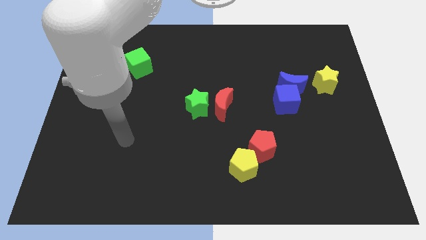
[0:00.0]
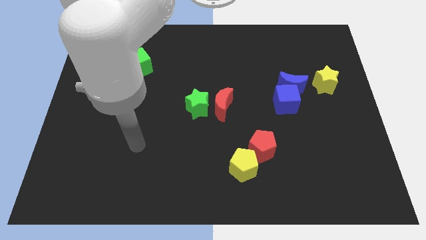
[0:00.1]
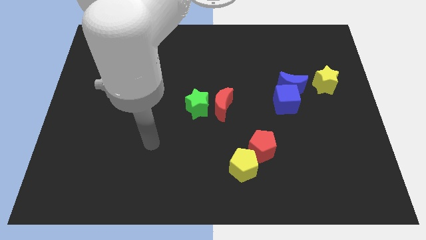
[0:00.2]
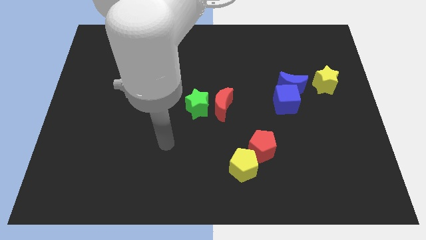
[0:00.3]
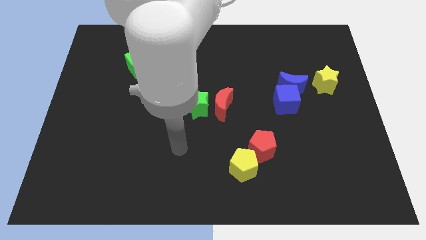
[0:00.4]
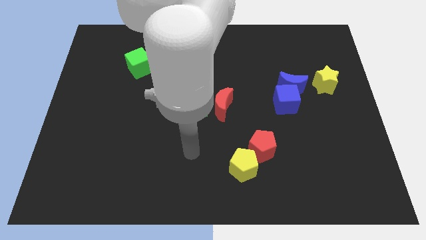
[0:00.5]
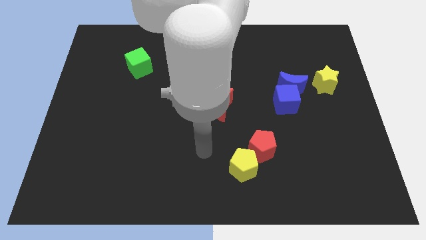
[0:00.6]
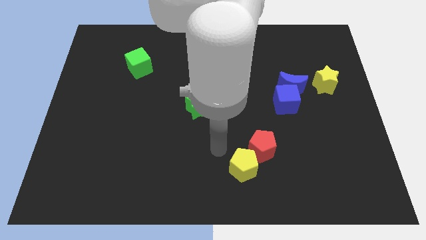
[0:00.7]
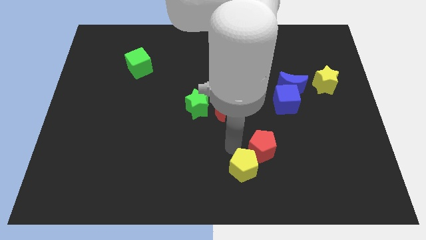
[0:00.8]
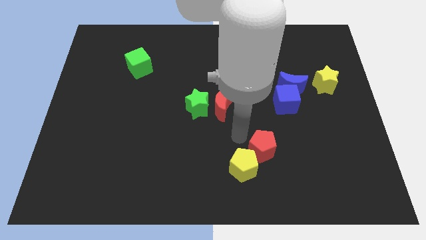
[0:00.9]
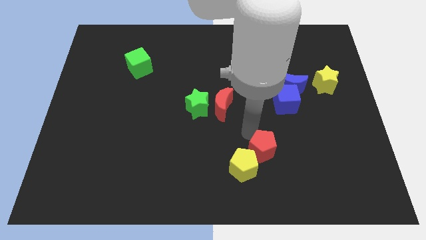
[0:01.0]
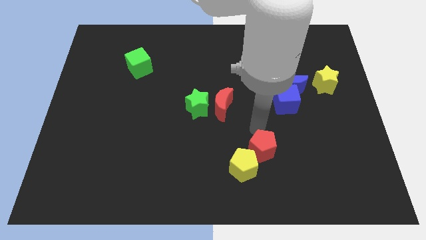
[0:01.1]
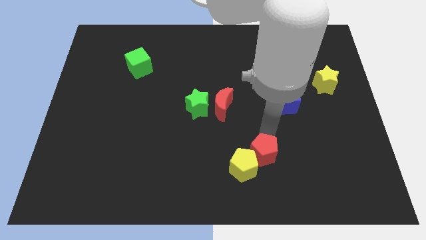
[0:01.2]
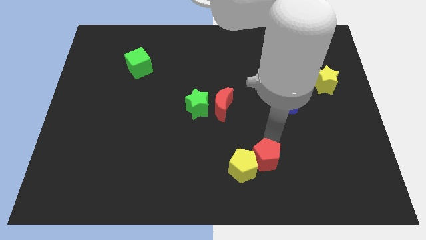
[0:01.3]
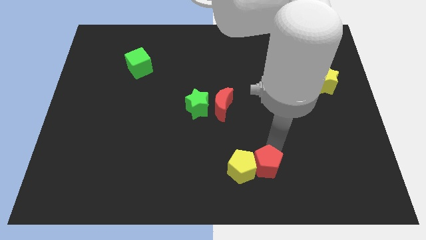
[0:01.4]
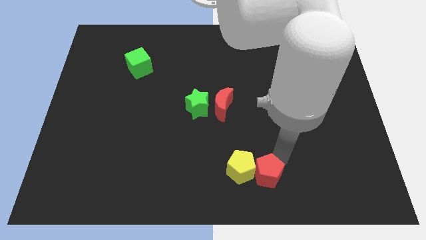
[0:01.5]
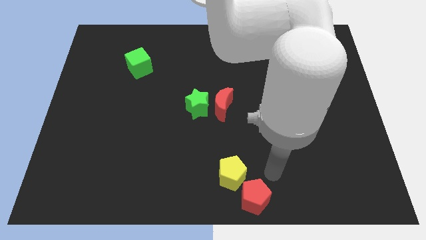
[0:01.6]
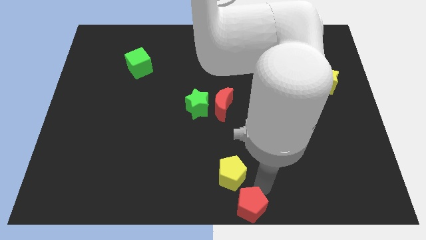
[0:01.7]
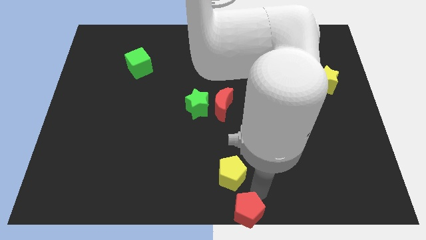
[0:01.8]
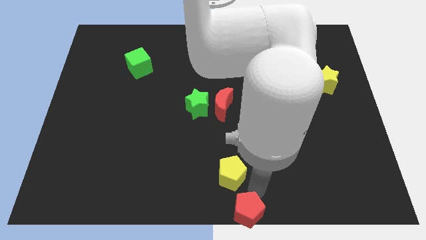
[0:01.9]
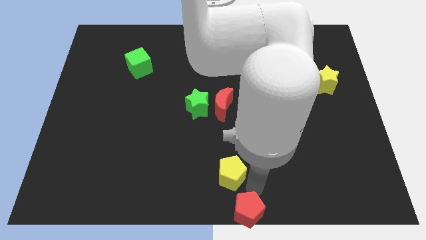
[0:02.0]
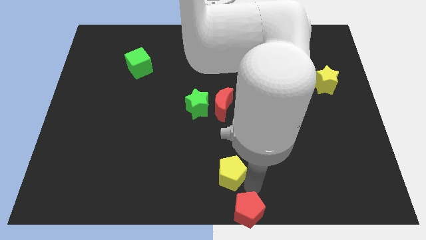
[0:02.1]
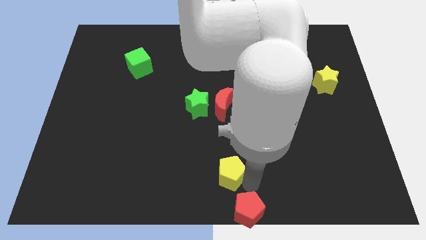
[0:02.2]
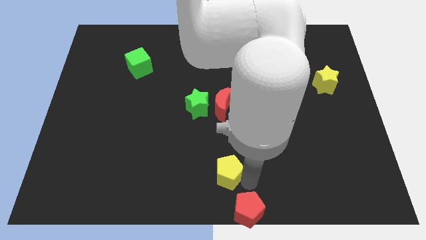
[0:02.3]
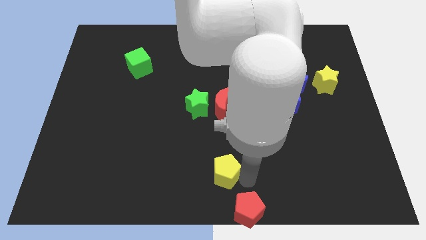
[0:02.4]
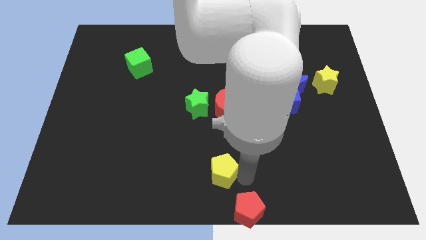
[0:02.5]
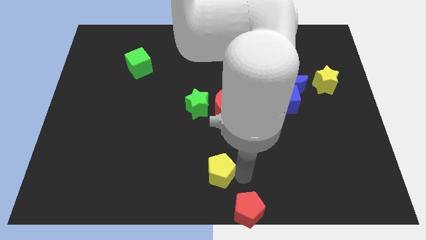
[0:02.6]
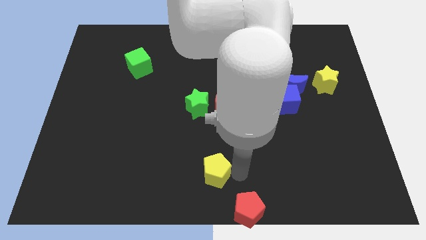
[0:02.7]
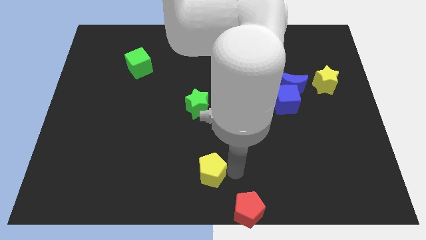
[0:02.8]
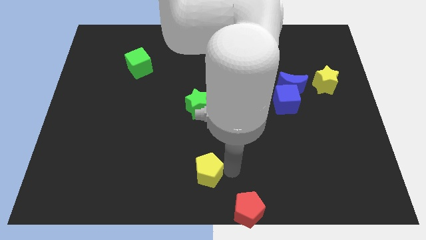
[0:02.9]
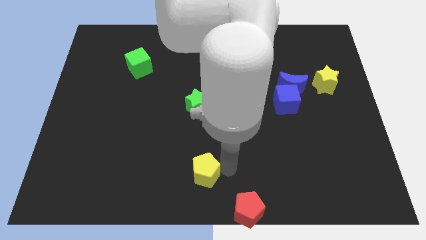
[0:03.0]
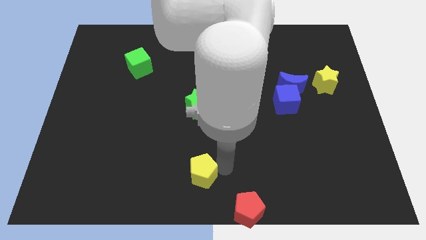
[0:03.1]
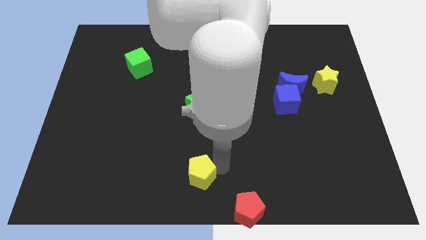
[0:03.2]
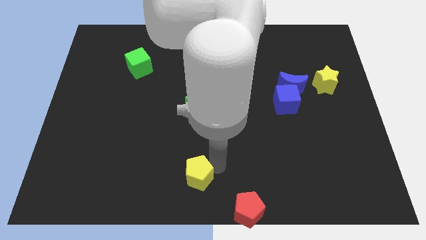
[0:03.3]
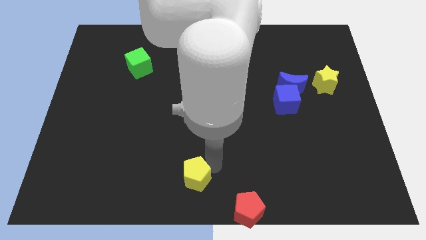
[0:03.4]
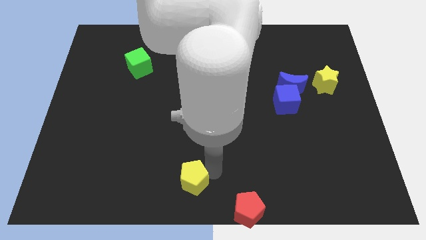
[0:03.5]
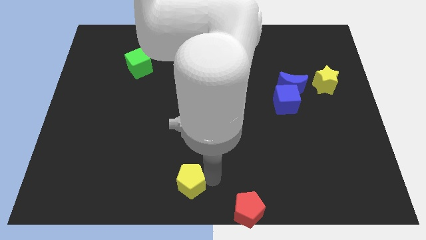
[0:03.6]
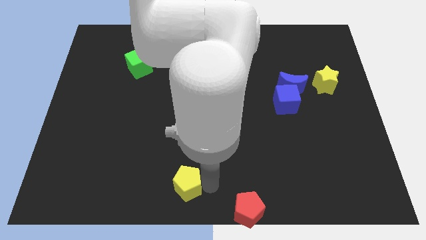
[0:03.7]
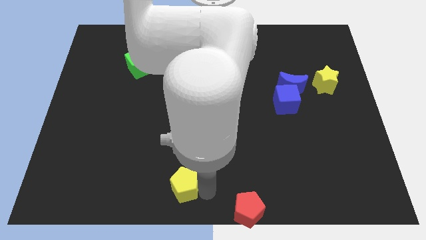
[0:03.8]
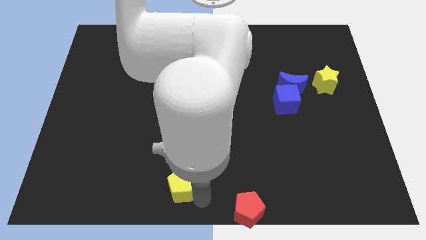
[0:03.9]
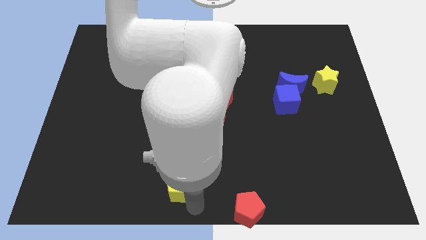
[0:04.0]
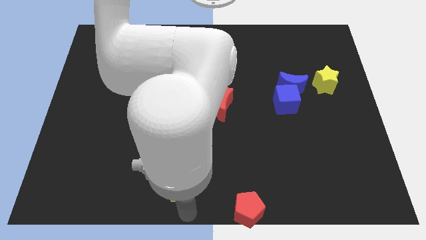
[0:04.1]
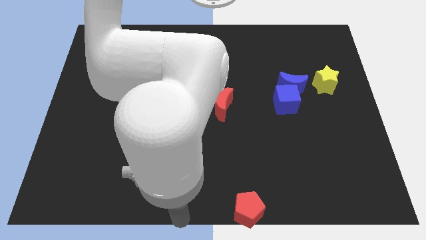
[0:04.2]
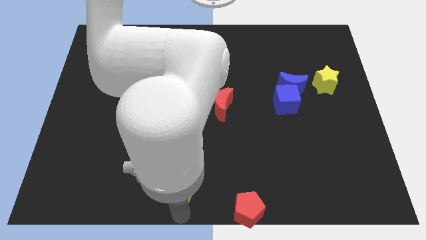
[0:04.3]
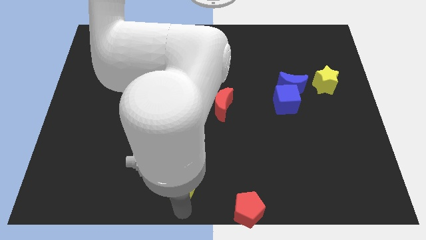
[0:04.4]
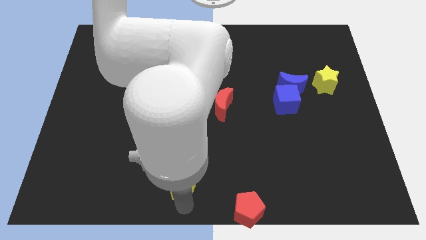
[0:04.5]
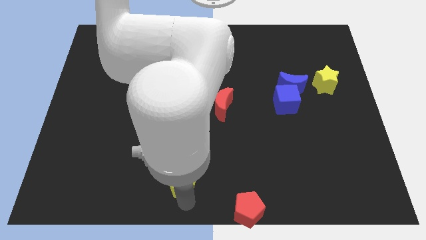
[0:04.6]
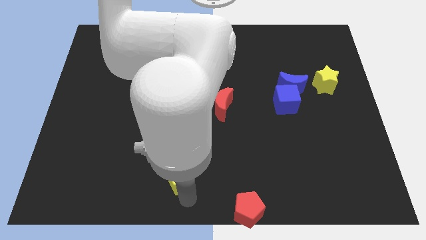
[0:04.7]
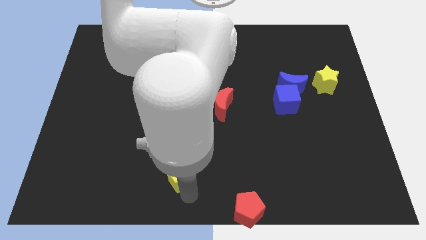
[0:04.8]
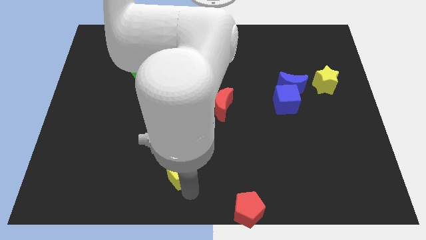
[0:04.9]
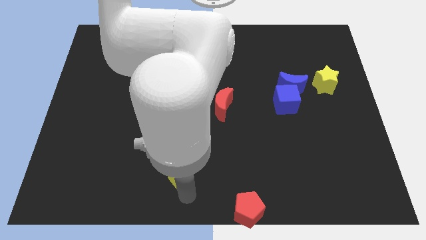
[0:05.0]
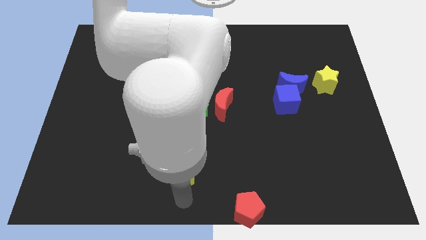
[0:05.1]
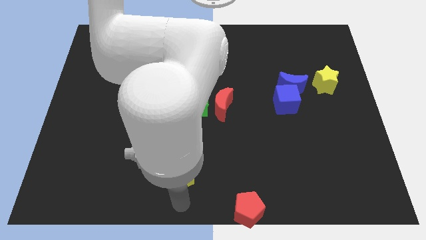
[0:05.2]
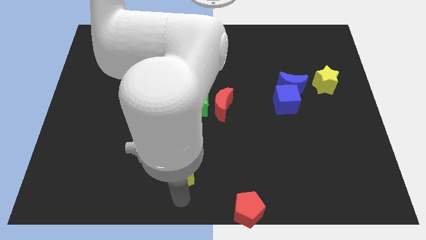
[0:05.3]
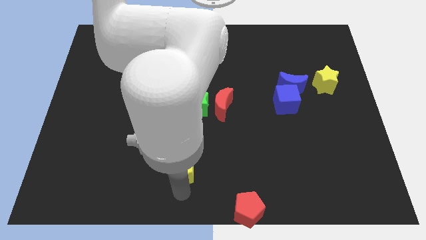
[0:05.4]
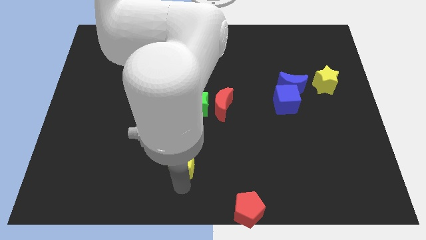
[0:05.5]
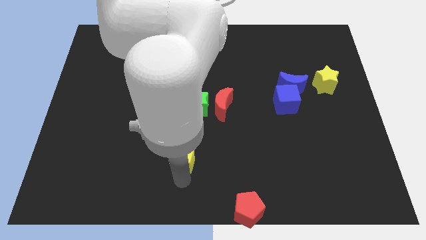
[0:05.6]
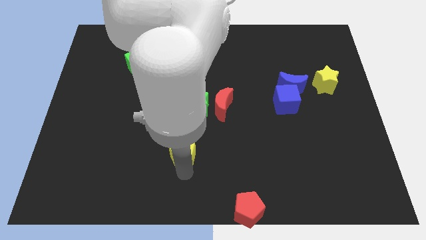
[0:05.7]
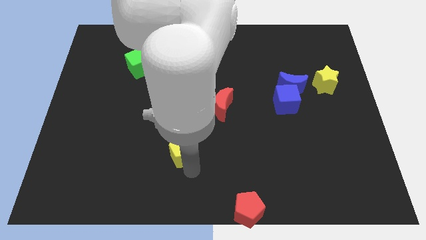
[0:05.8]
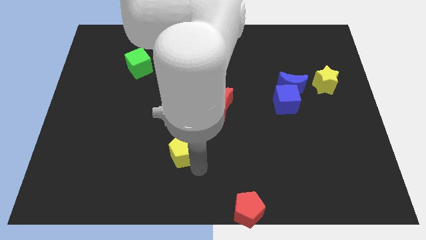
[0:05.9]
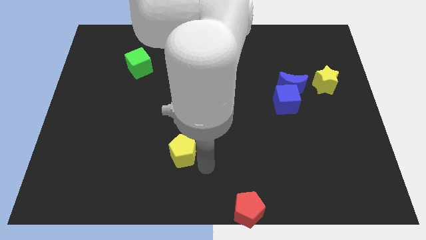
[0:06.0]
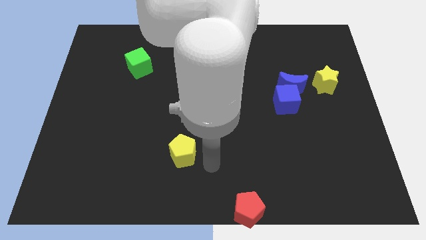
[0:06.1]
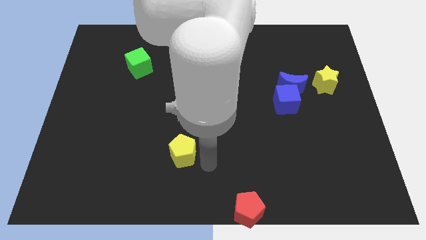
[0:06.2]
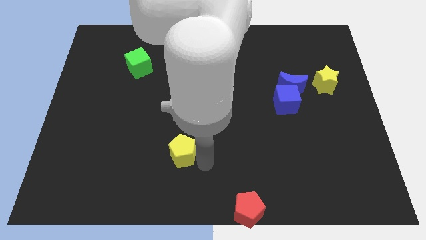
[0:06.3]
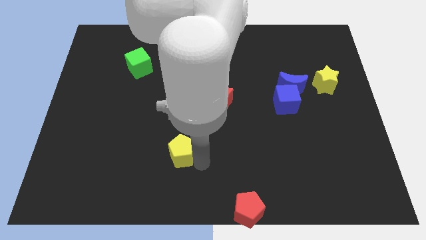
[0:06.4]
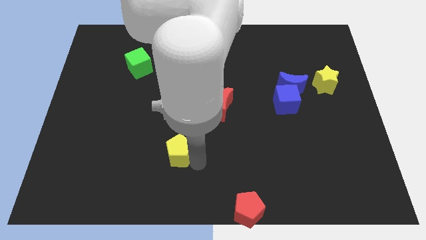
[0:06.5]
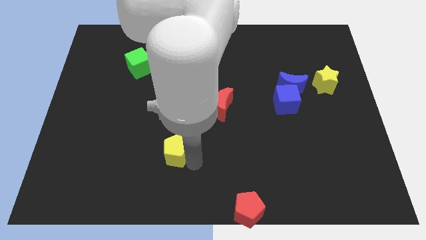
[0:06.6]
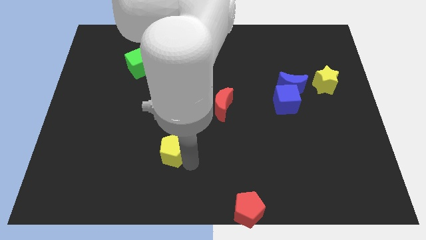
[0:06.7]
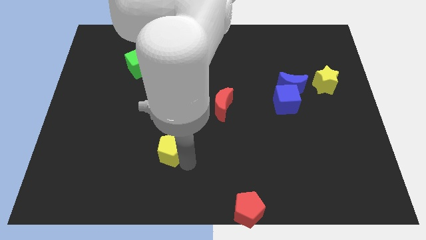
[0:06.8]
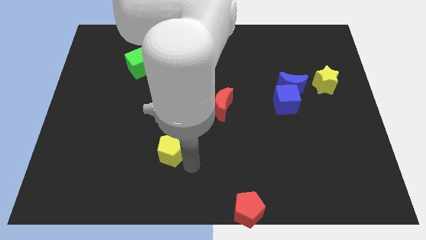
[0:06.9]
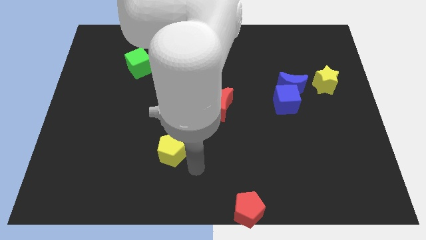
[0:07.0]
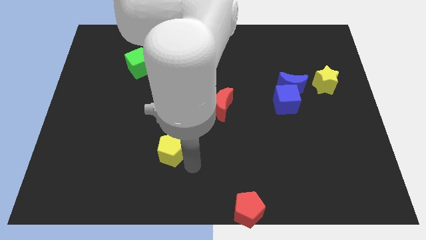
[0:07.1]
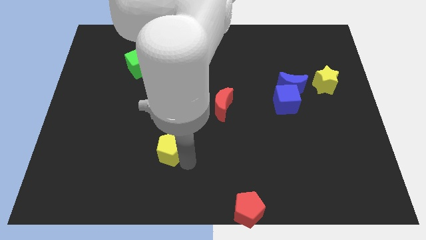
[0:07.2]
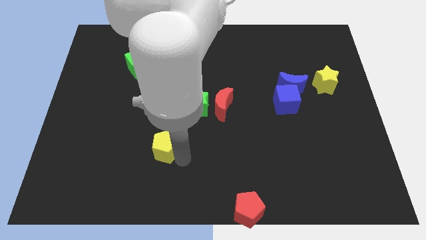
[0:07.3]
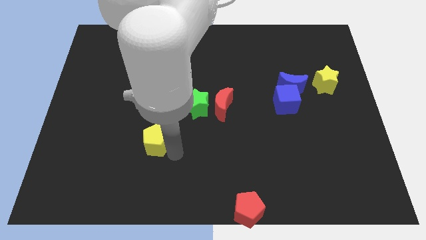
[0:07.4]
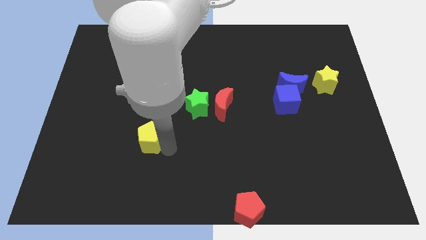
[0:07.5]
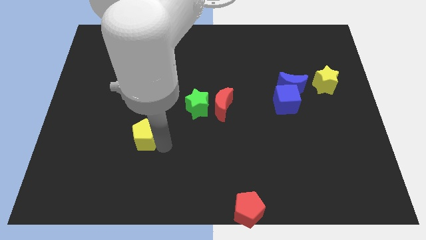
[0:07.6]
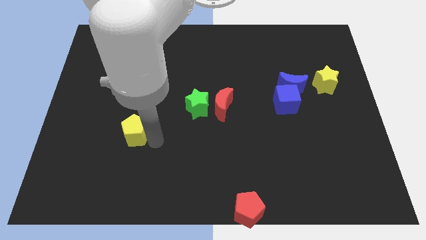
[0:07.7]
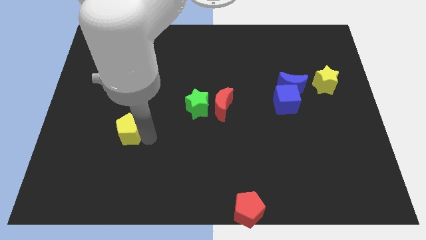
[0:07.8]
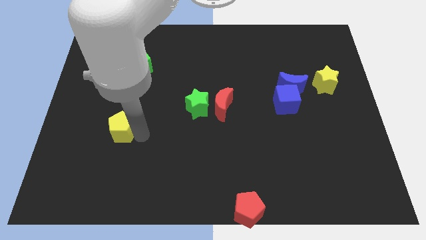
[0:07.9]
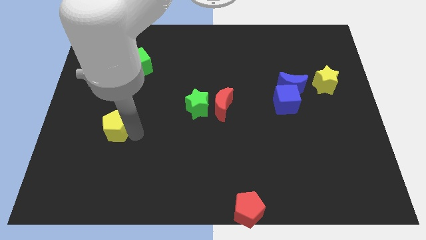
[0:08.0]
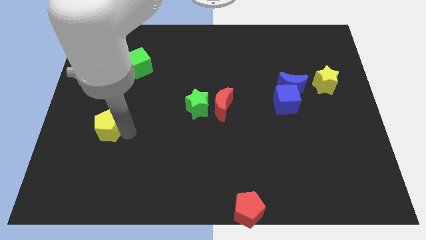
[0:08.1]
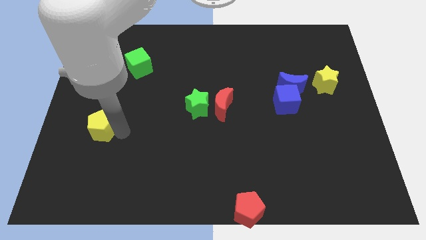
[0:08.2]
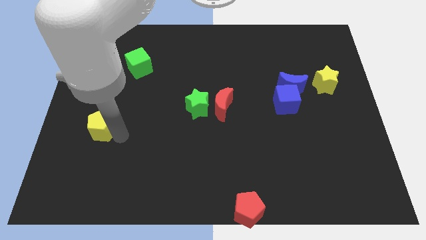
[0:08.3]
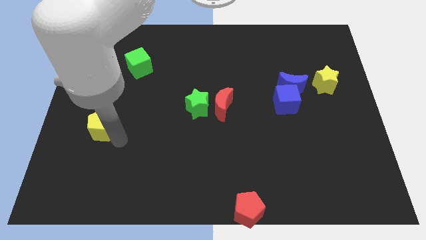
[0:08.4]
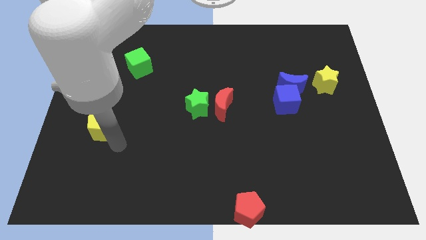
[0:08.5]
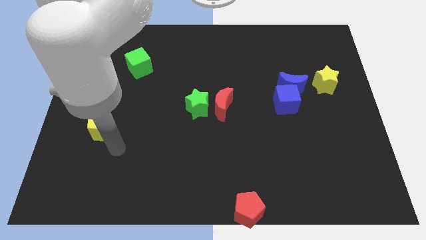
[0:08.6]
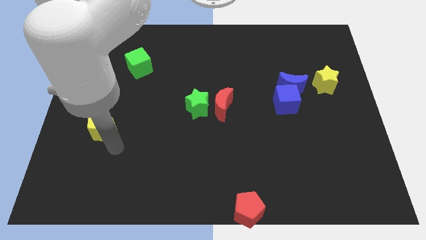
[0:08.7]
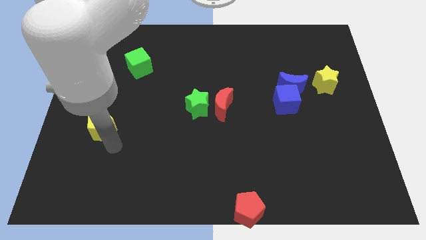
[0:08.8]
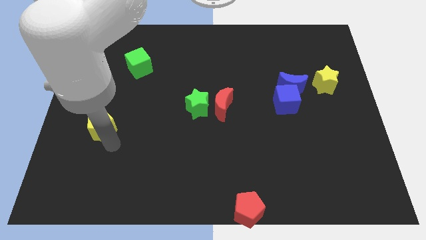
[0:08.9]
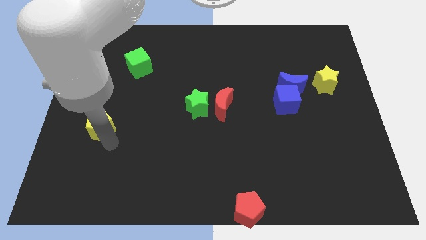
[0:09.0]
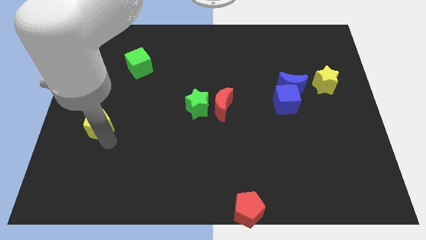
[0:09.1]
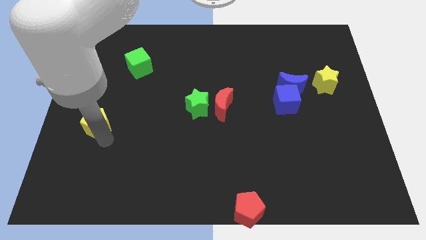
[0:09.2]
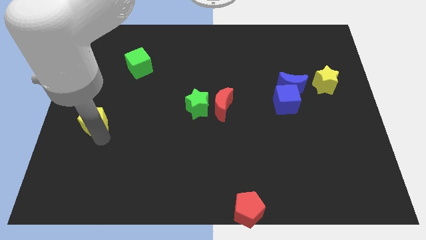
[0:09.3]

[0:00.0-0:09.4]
slide the yellow pentagon to the left side of the board
